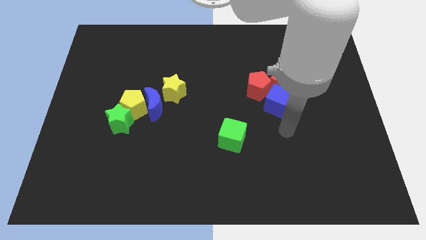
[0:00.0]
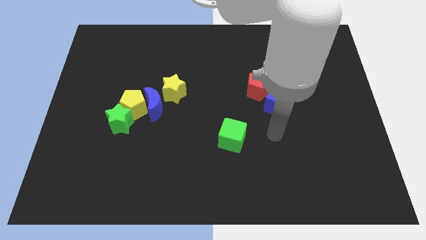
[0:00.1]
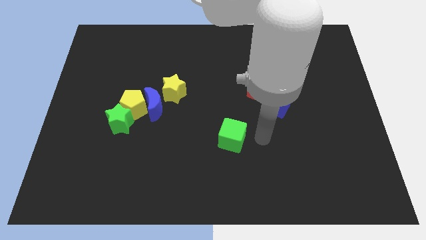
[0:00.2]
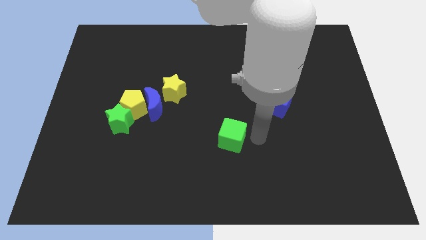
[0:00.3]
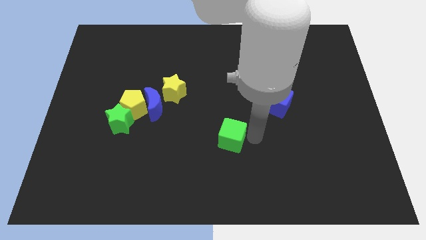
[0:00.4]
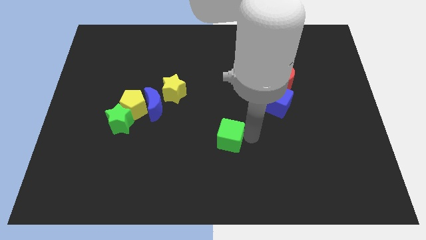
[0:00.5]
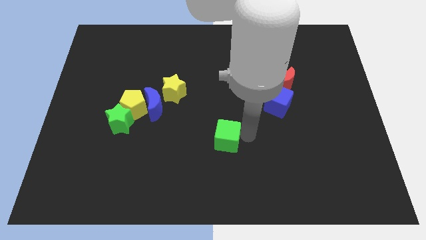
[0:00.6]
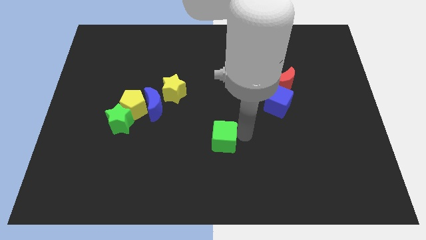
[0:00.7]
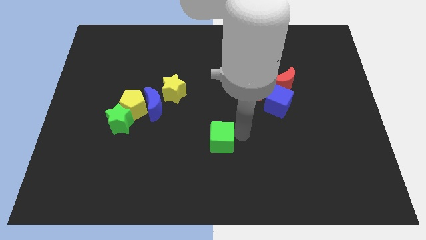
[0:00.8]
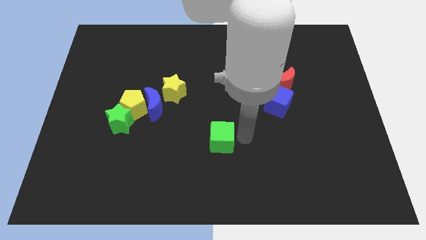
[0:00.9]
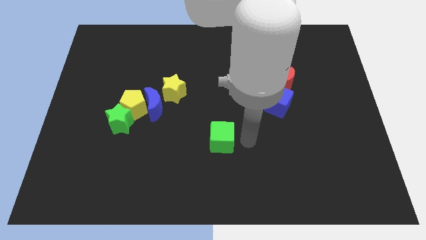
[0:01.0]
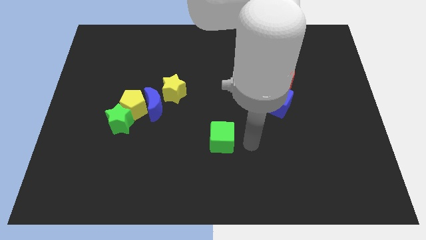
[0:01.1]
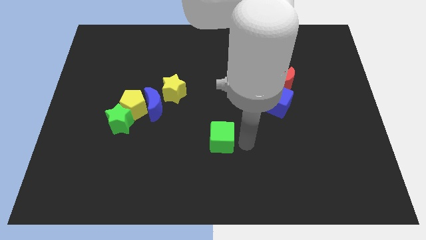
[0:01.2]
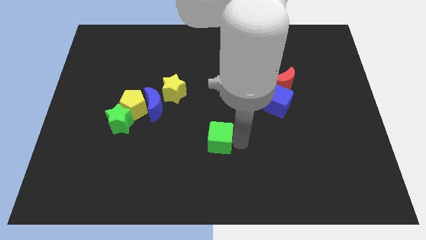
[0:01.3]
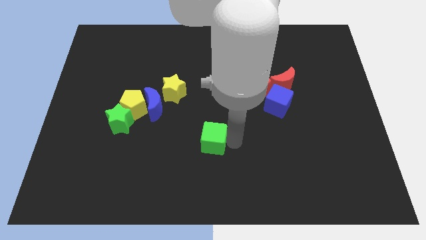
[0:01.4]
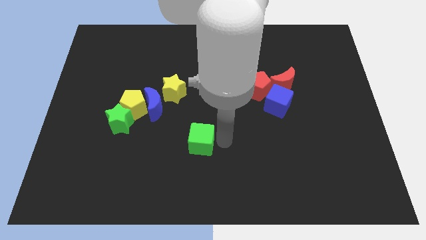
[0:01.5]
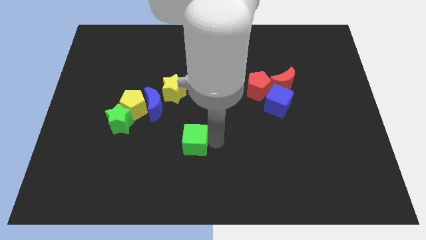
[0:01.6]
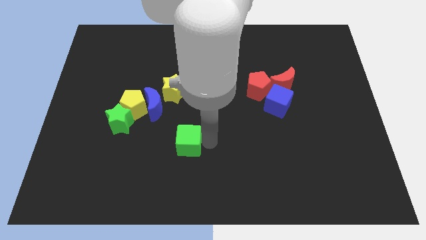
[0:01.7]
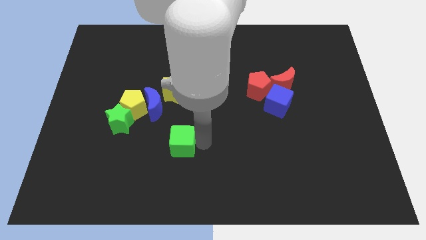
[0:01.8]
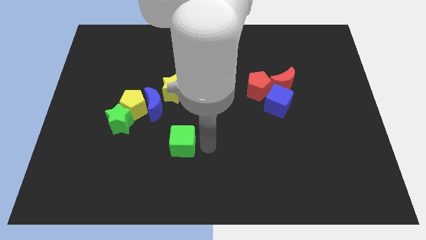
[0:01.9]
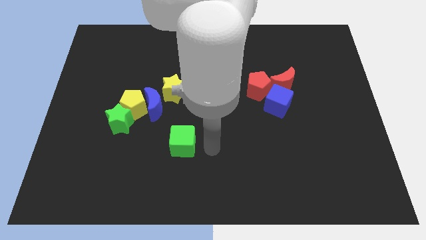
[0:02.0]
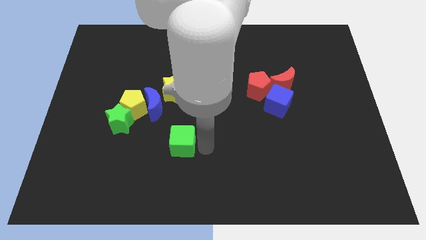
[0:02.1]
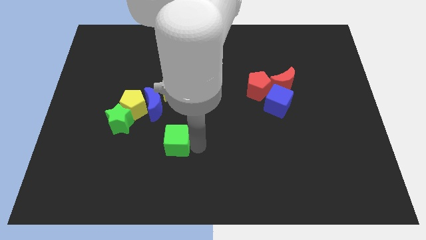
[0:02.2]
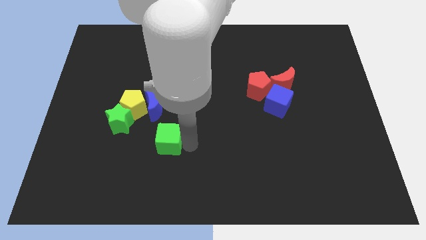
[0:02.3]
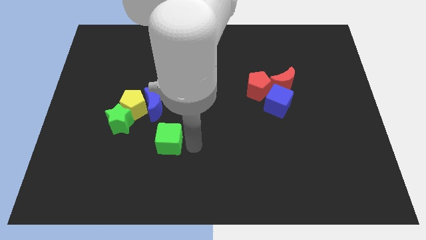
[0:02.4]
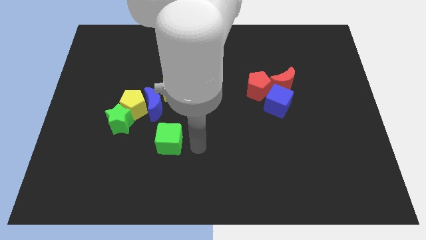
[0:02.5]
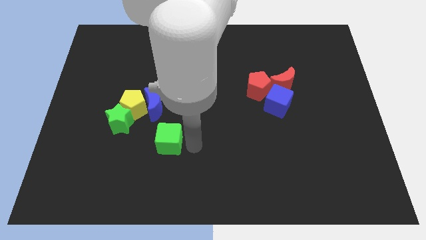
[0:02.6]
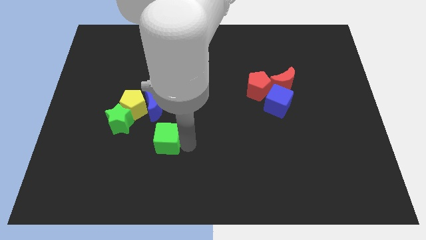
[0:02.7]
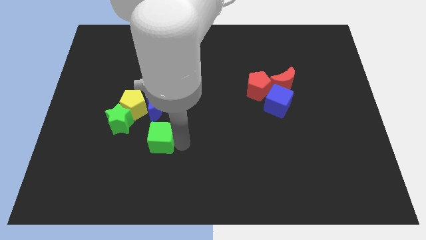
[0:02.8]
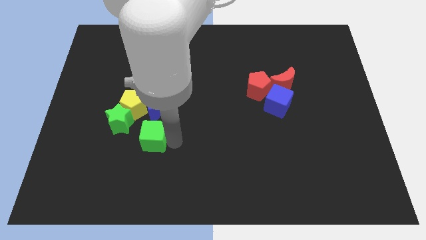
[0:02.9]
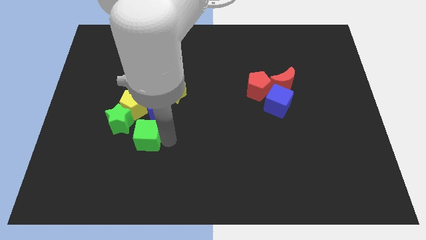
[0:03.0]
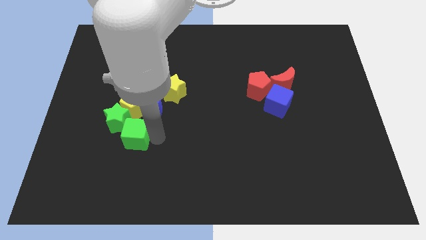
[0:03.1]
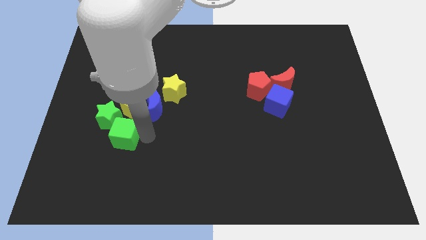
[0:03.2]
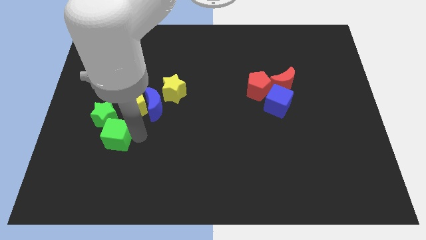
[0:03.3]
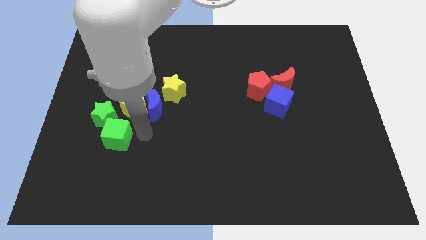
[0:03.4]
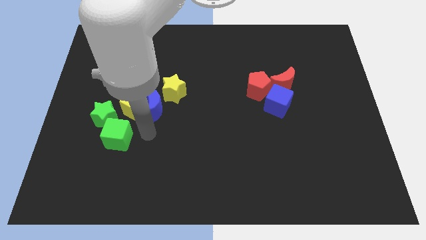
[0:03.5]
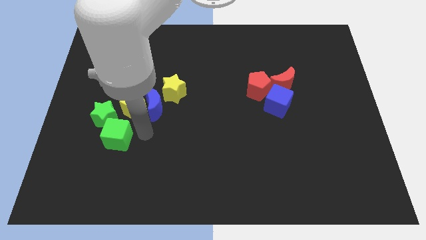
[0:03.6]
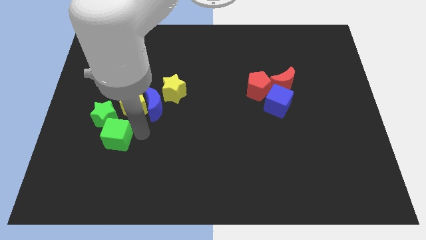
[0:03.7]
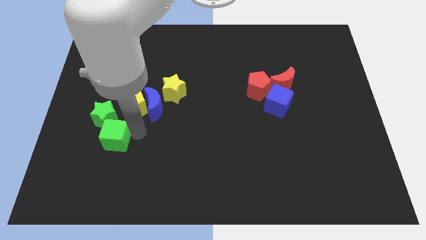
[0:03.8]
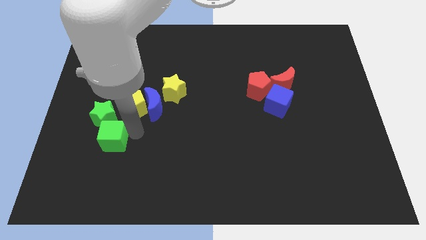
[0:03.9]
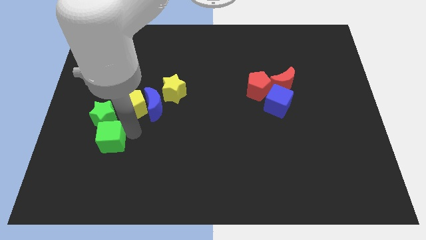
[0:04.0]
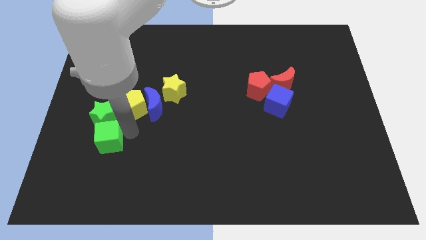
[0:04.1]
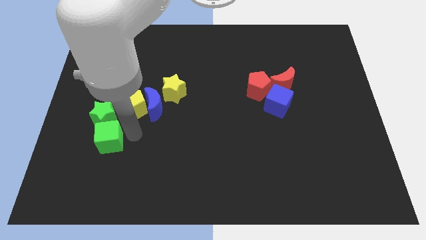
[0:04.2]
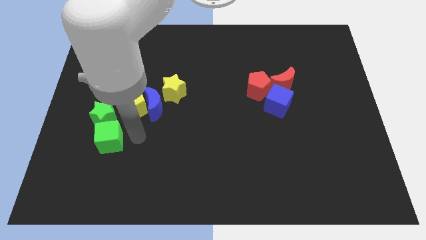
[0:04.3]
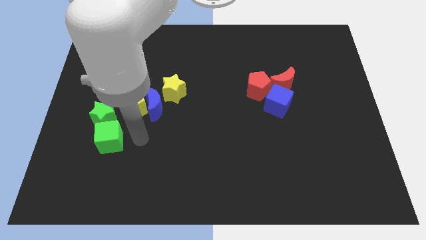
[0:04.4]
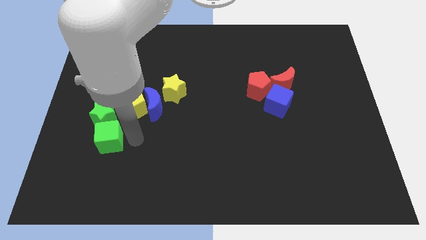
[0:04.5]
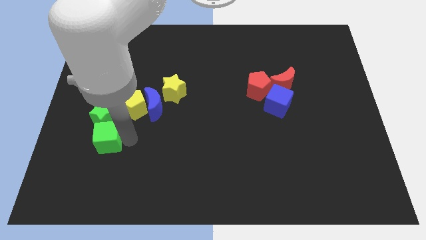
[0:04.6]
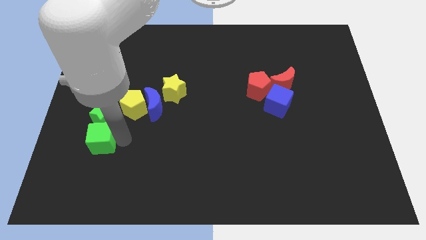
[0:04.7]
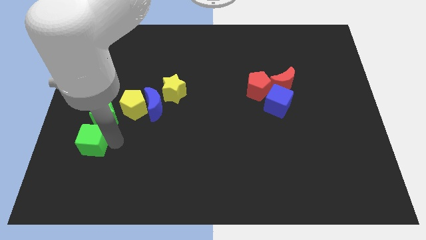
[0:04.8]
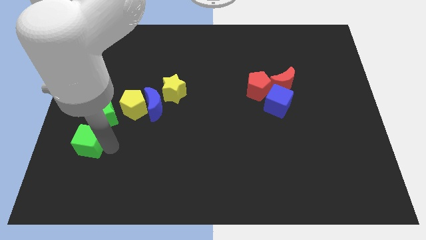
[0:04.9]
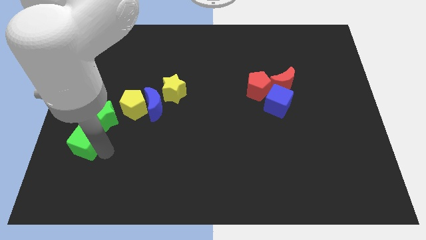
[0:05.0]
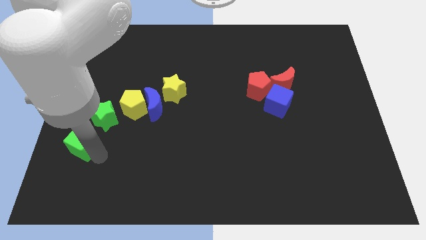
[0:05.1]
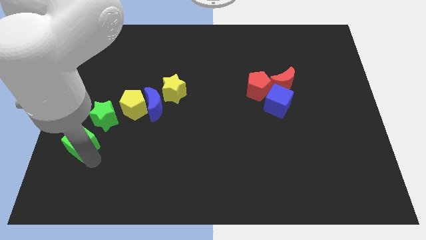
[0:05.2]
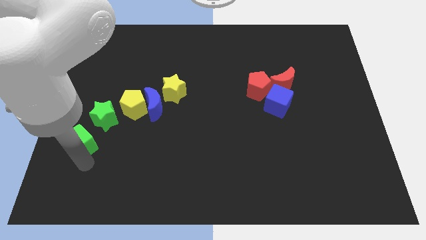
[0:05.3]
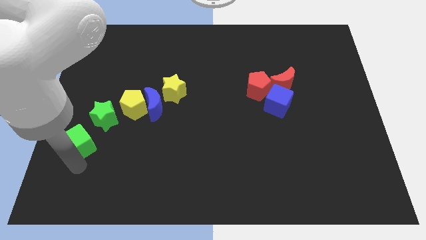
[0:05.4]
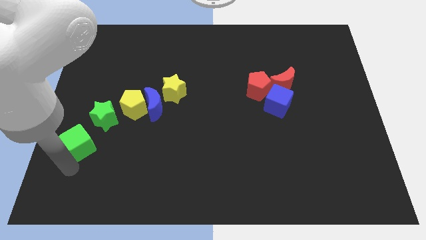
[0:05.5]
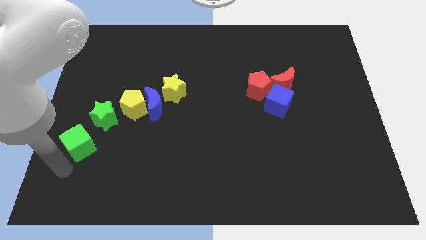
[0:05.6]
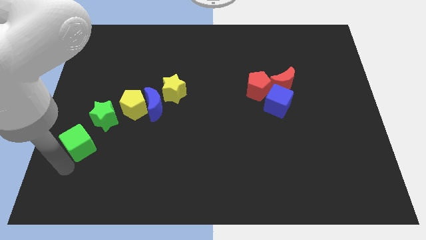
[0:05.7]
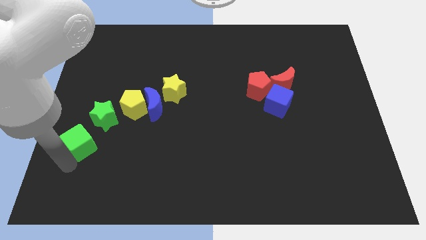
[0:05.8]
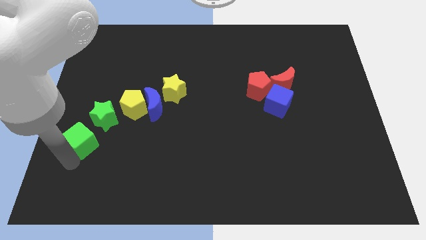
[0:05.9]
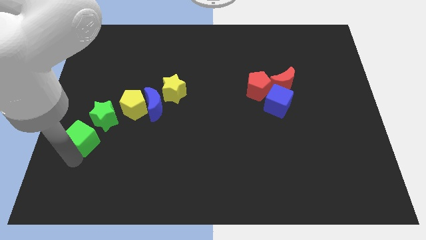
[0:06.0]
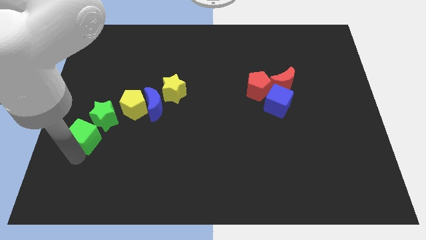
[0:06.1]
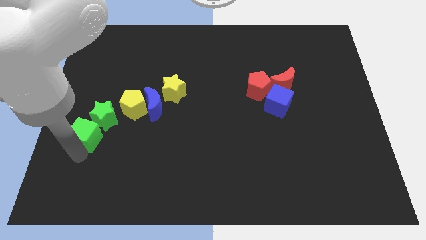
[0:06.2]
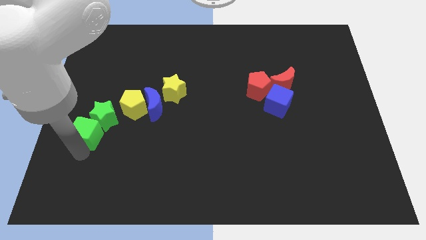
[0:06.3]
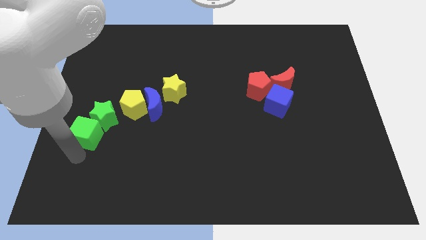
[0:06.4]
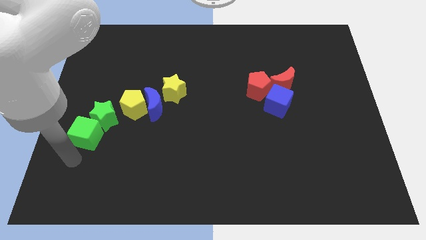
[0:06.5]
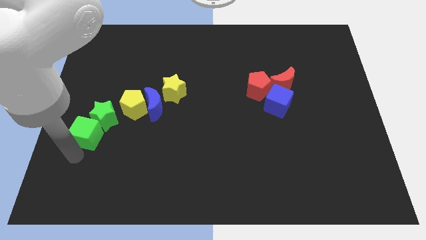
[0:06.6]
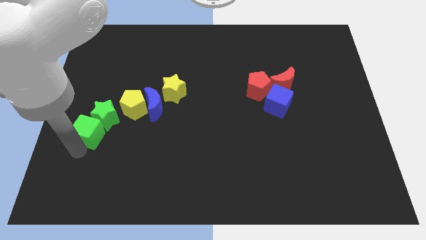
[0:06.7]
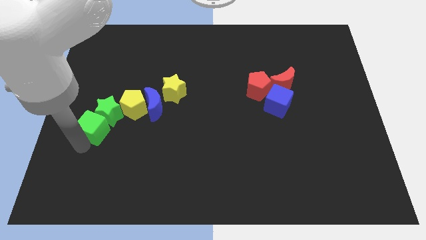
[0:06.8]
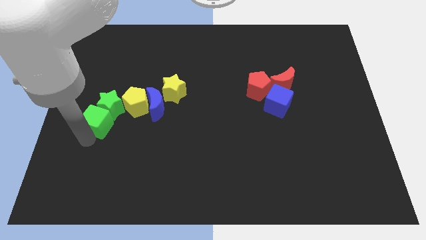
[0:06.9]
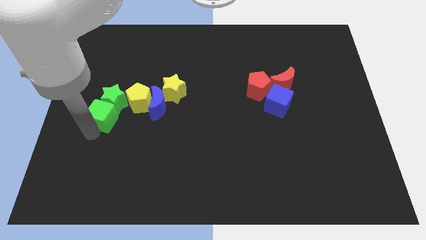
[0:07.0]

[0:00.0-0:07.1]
move the green cube just left of the blue moon
